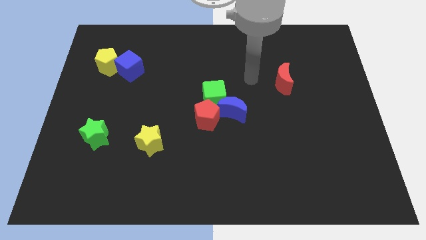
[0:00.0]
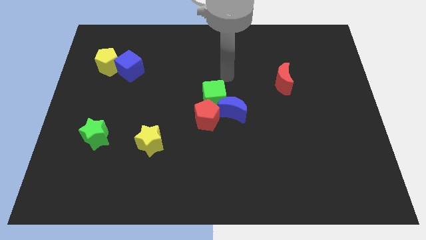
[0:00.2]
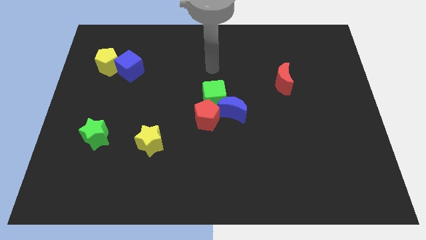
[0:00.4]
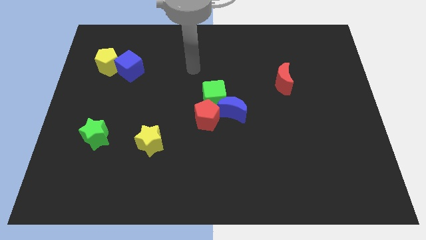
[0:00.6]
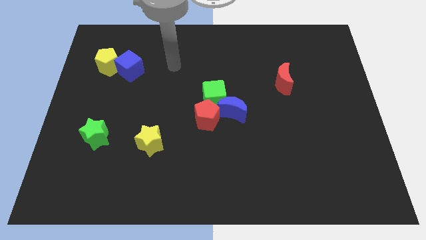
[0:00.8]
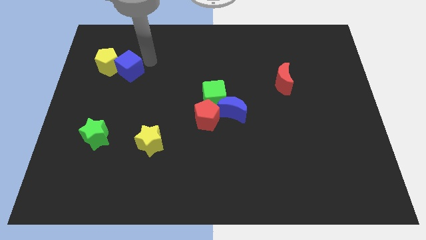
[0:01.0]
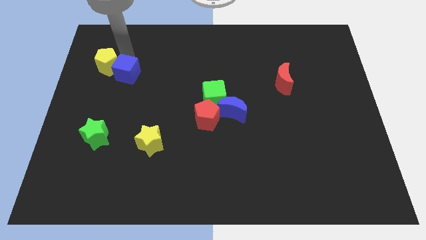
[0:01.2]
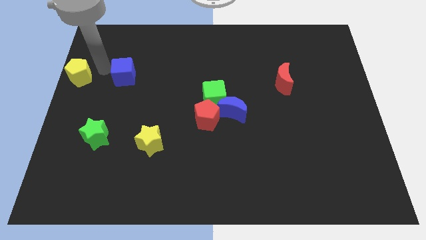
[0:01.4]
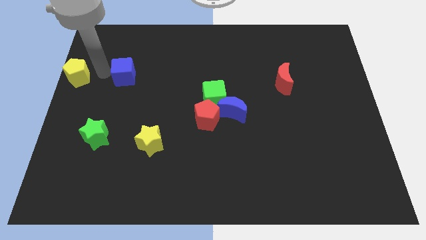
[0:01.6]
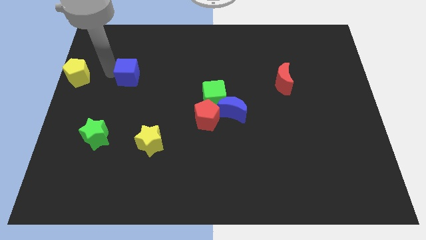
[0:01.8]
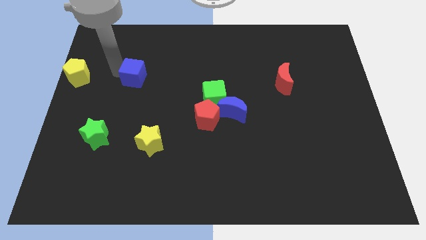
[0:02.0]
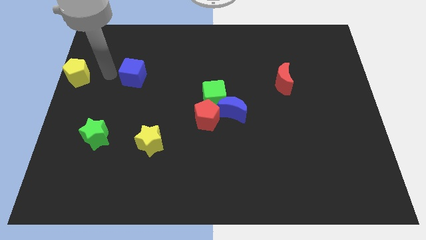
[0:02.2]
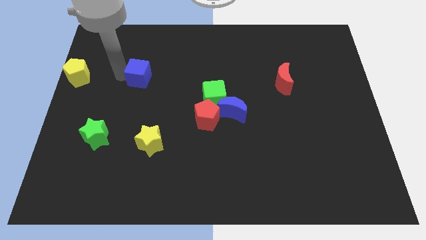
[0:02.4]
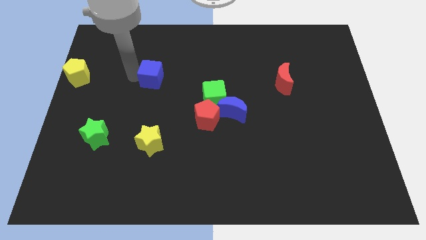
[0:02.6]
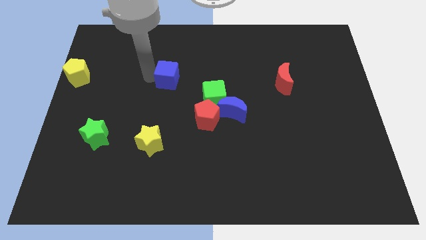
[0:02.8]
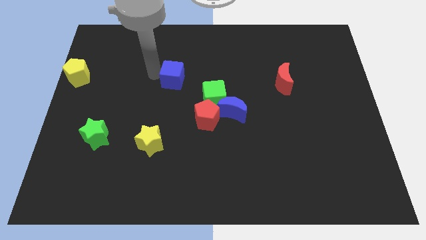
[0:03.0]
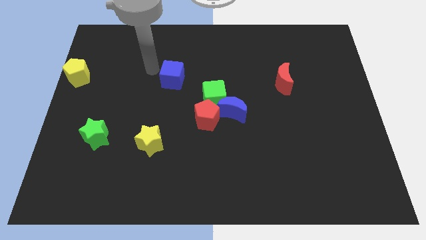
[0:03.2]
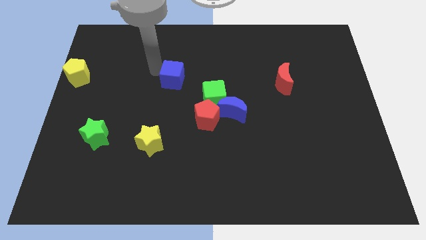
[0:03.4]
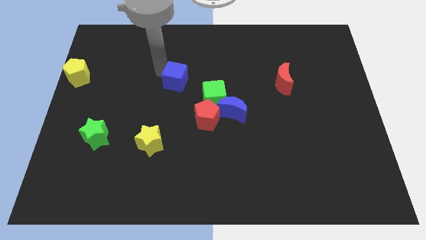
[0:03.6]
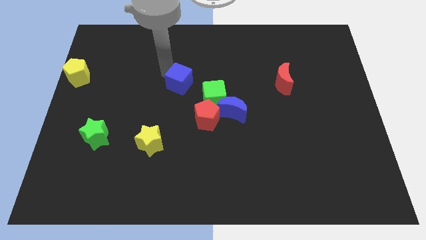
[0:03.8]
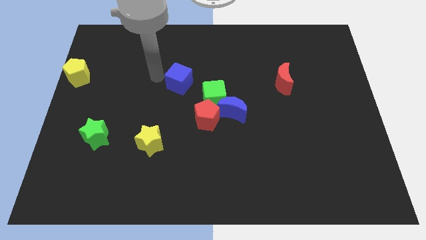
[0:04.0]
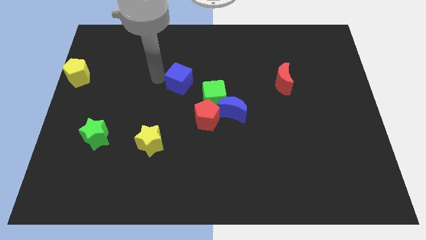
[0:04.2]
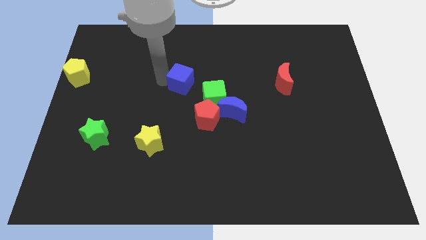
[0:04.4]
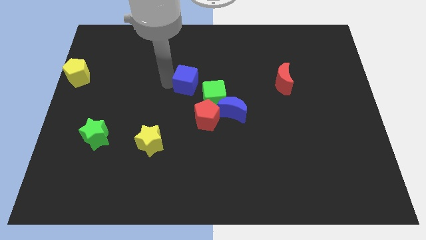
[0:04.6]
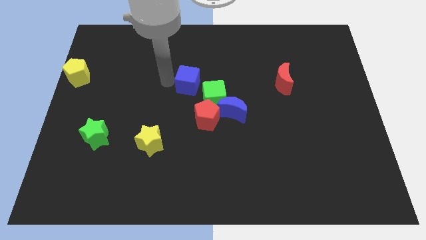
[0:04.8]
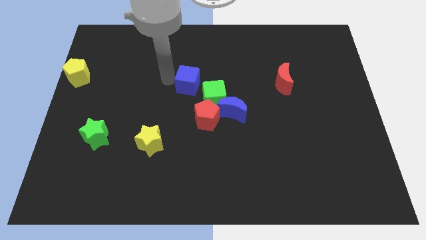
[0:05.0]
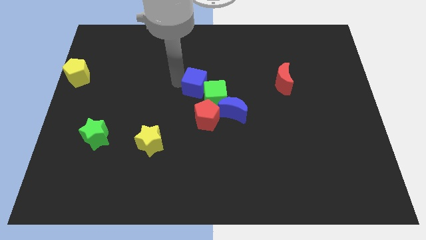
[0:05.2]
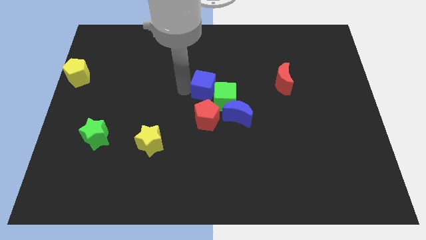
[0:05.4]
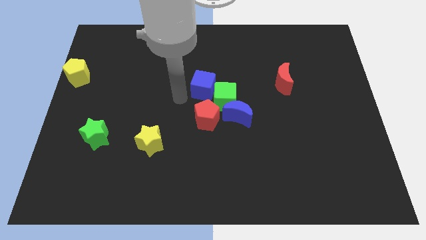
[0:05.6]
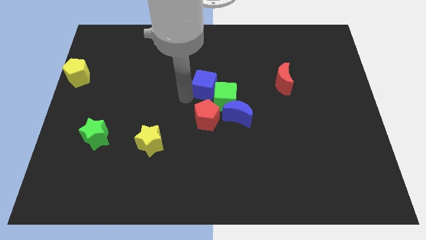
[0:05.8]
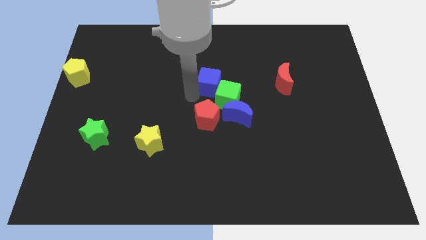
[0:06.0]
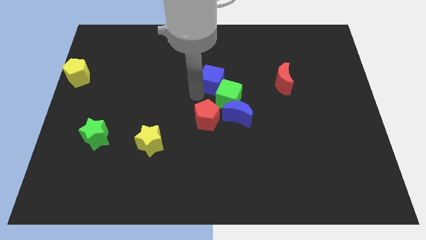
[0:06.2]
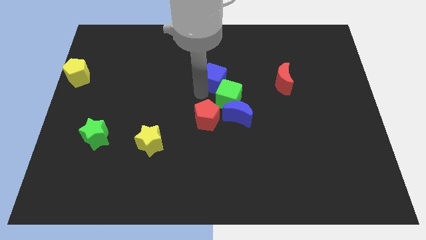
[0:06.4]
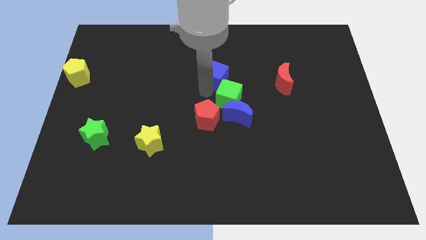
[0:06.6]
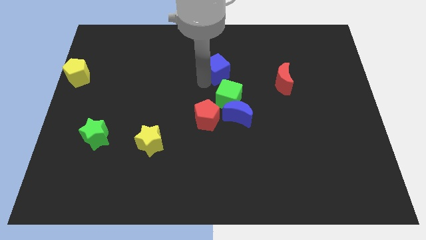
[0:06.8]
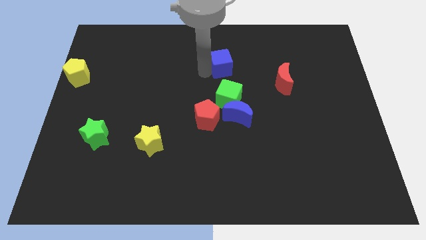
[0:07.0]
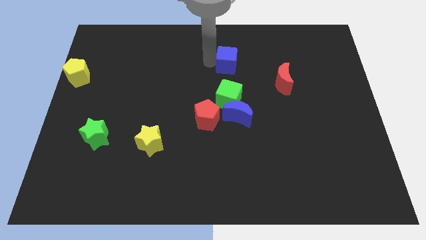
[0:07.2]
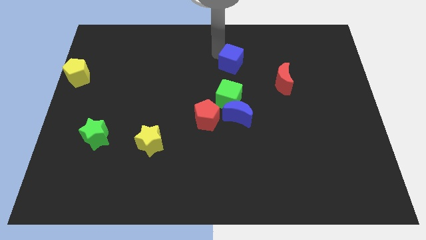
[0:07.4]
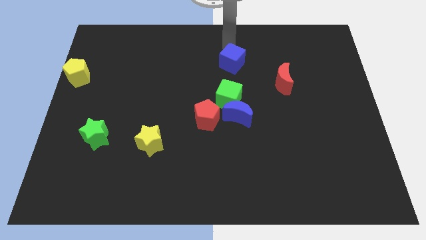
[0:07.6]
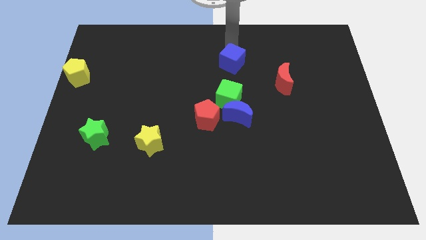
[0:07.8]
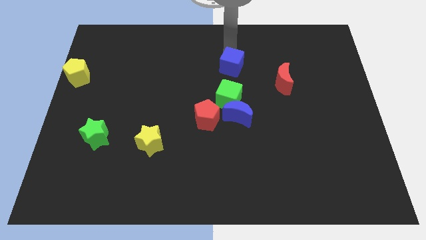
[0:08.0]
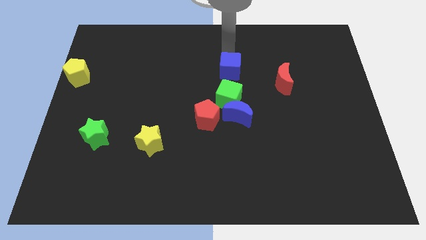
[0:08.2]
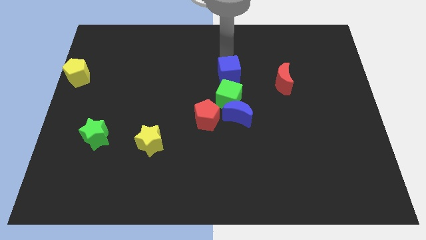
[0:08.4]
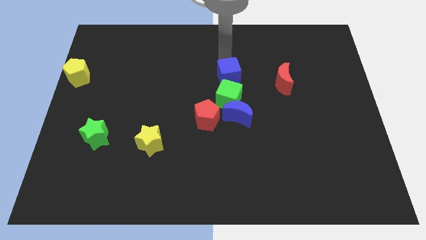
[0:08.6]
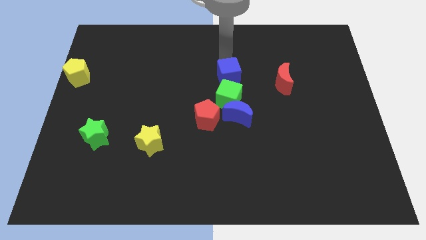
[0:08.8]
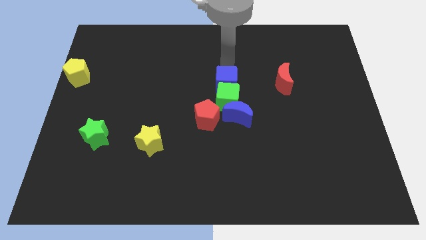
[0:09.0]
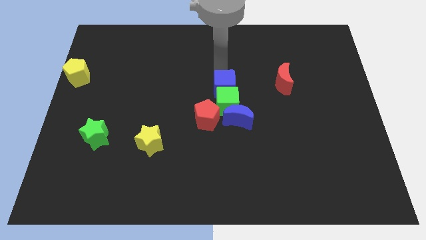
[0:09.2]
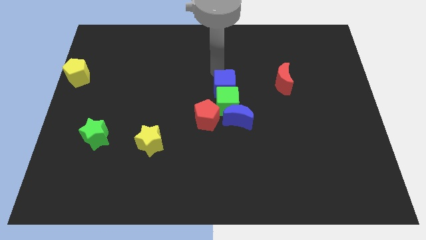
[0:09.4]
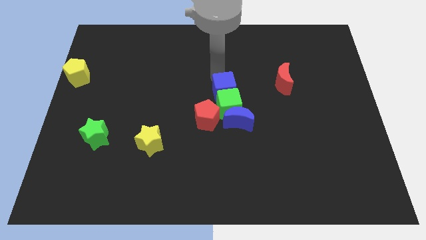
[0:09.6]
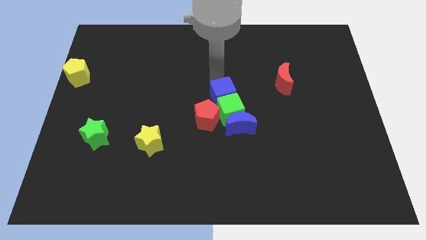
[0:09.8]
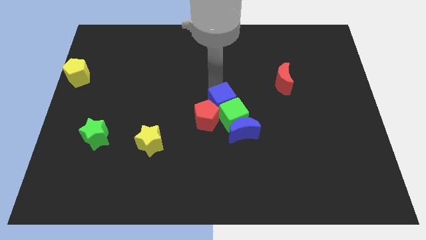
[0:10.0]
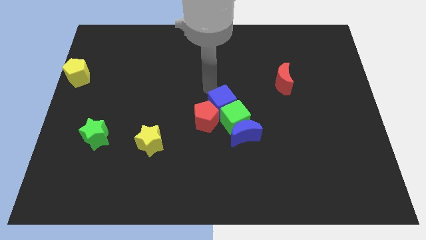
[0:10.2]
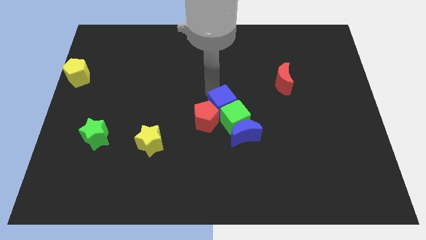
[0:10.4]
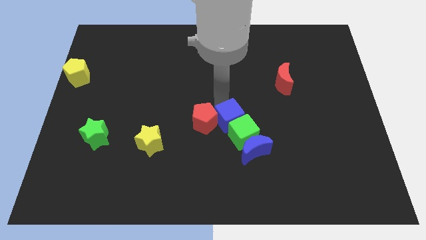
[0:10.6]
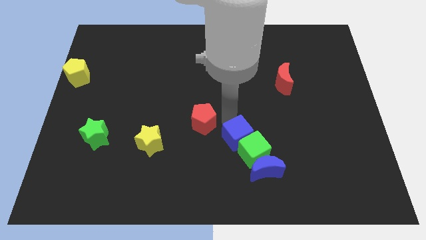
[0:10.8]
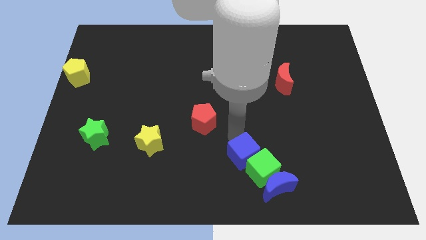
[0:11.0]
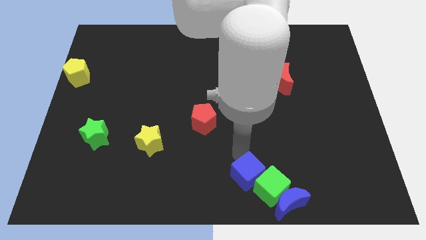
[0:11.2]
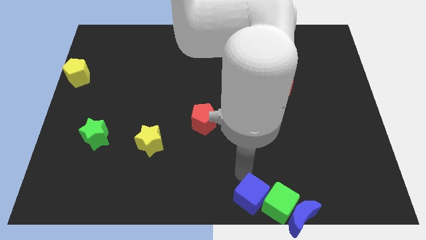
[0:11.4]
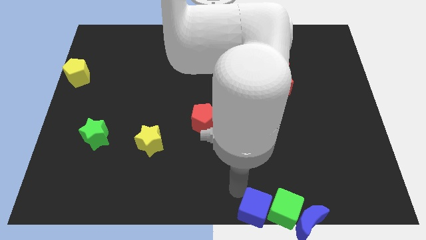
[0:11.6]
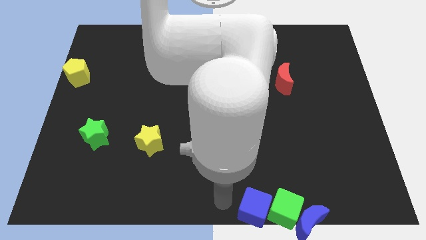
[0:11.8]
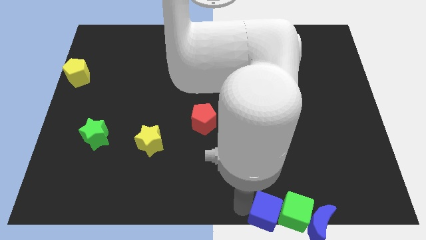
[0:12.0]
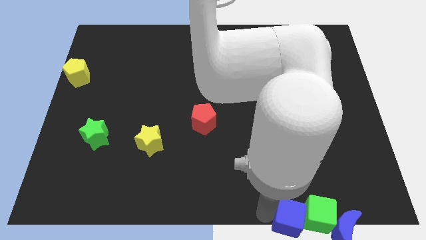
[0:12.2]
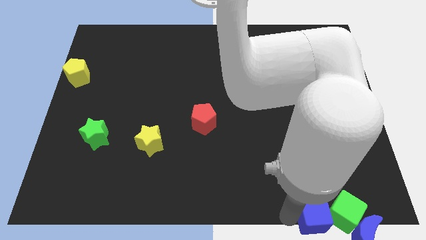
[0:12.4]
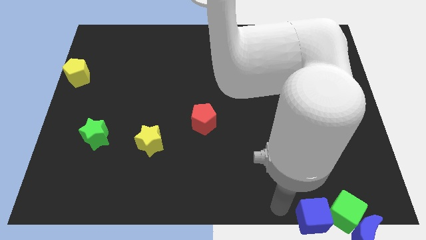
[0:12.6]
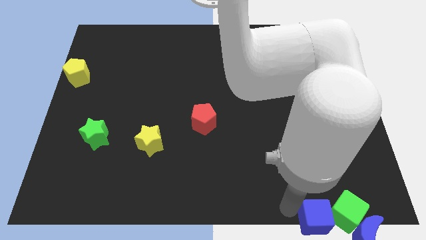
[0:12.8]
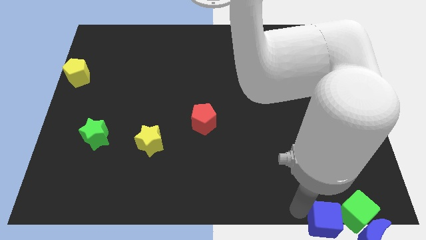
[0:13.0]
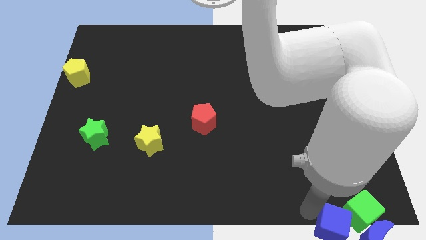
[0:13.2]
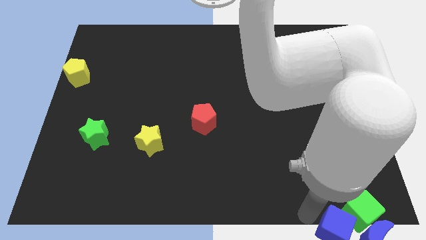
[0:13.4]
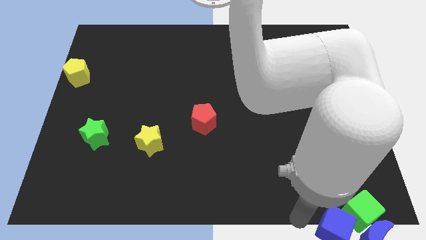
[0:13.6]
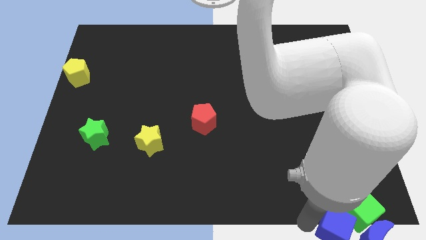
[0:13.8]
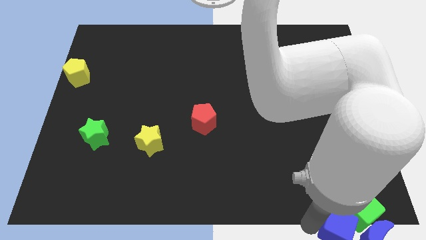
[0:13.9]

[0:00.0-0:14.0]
move the blue cube to the blue moon
